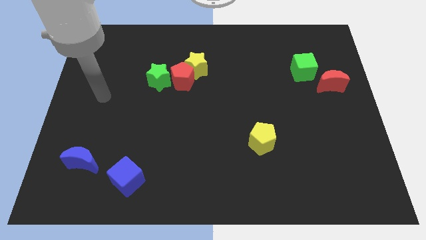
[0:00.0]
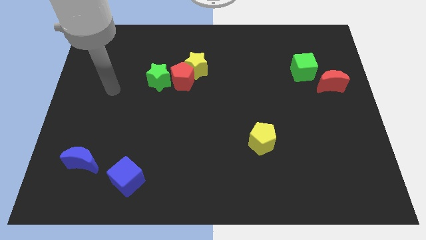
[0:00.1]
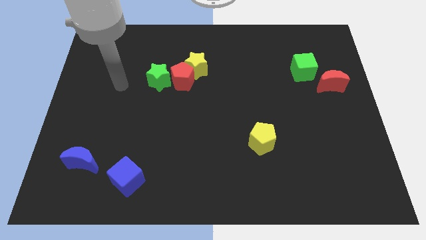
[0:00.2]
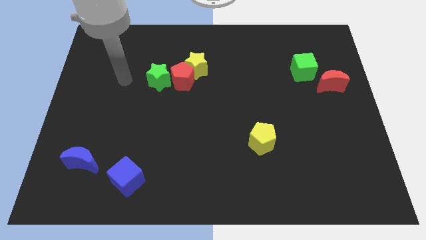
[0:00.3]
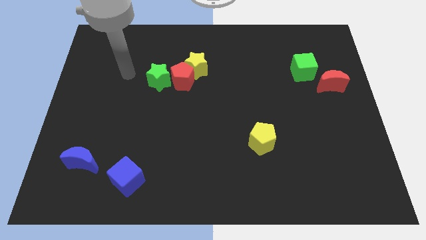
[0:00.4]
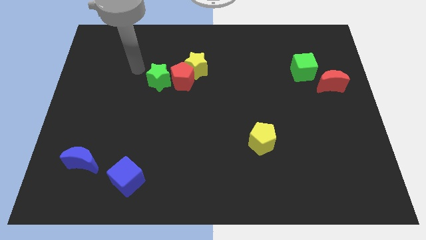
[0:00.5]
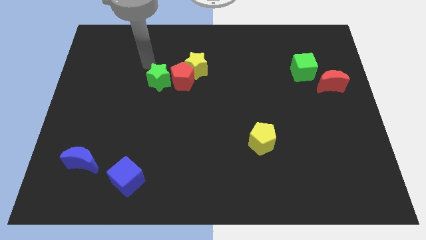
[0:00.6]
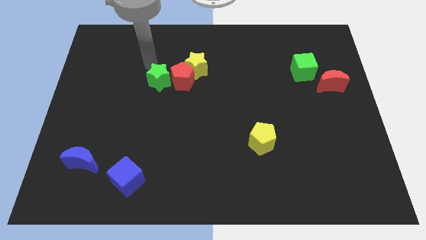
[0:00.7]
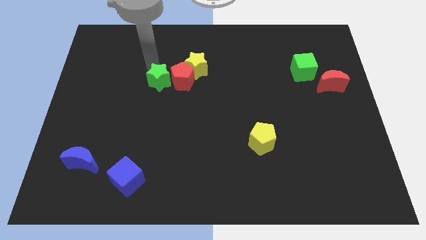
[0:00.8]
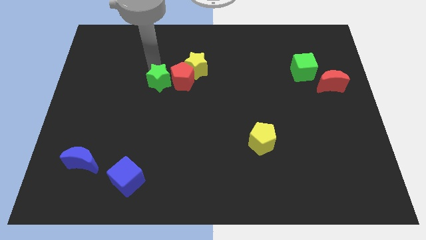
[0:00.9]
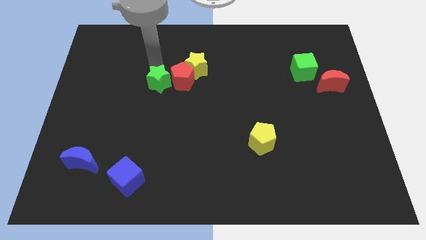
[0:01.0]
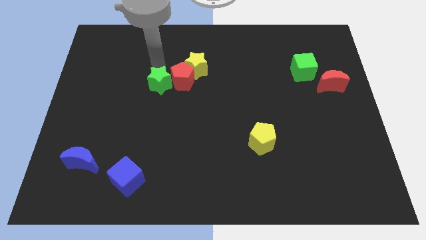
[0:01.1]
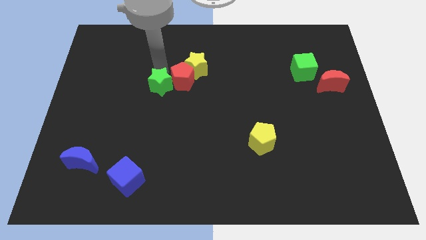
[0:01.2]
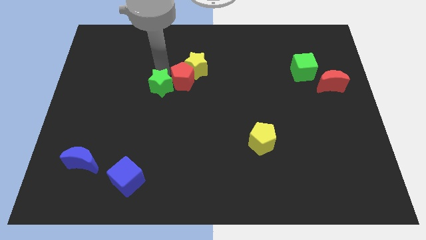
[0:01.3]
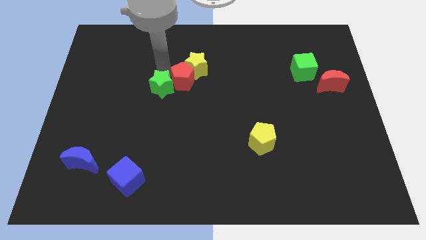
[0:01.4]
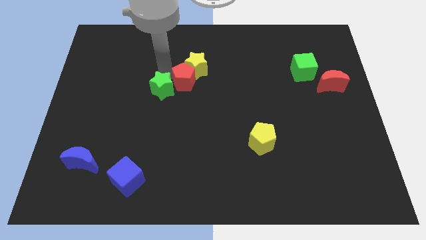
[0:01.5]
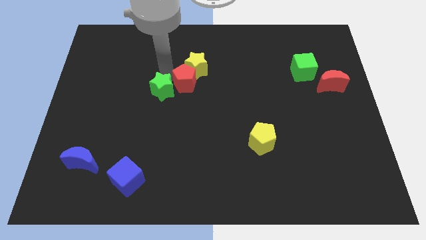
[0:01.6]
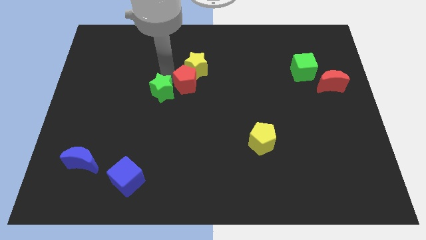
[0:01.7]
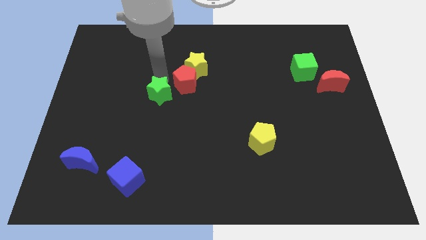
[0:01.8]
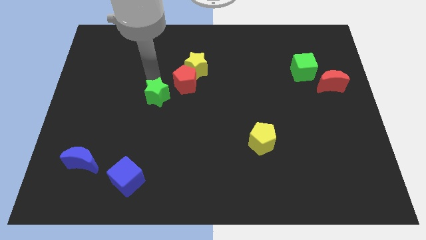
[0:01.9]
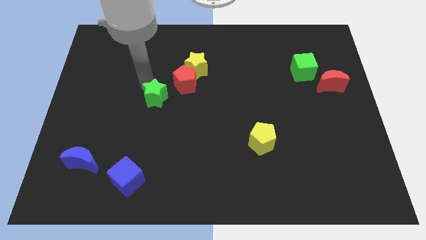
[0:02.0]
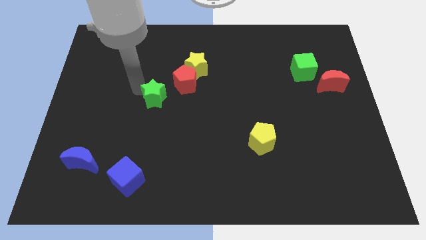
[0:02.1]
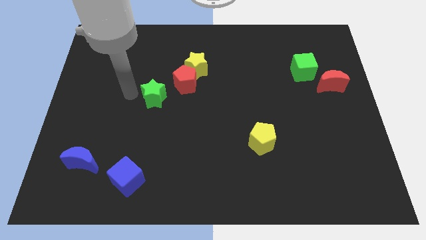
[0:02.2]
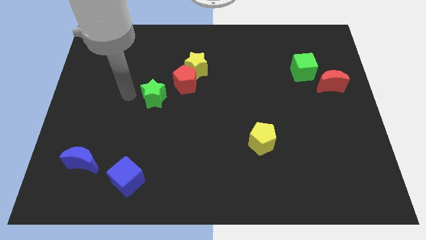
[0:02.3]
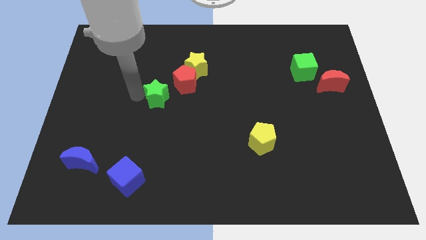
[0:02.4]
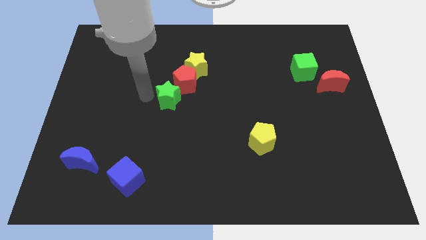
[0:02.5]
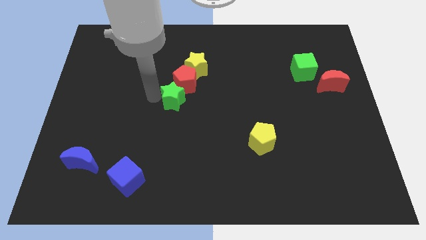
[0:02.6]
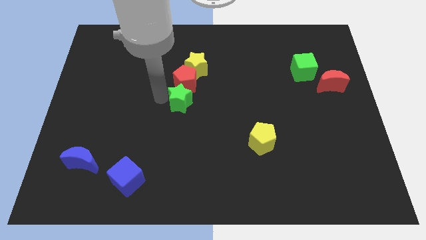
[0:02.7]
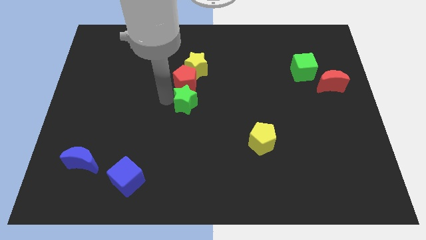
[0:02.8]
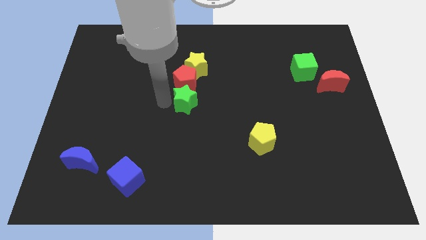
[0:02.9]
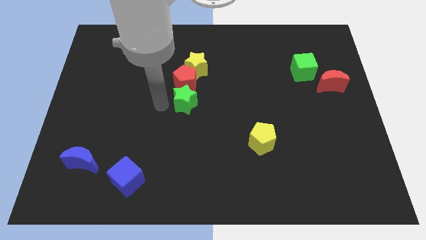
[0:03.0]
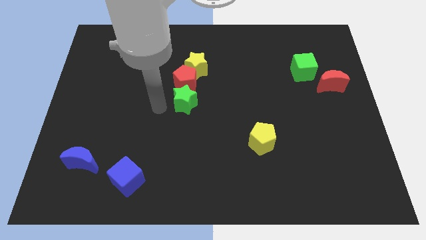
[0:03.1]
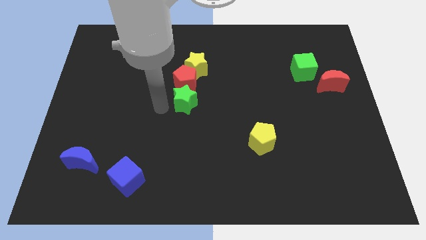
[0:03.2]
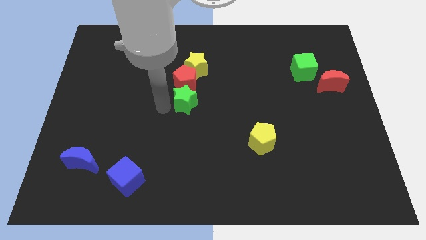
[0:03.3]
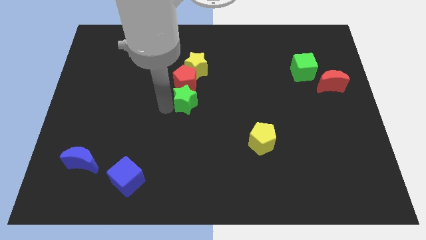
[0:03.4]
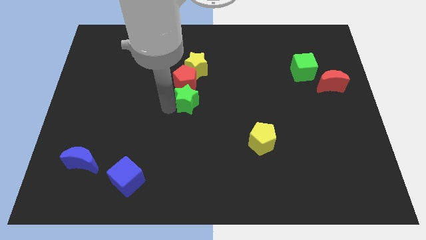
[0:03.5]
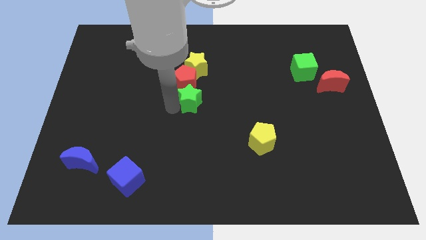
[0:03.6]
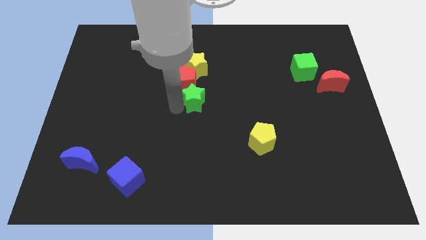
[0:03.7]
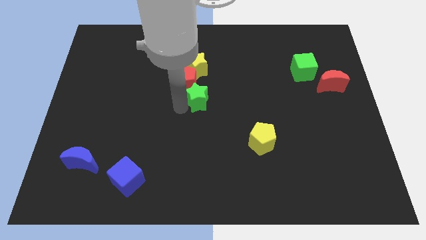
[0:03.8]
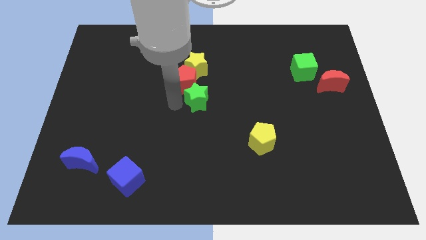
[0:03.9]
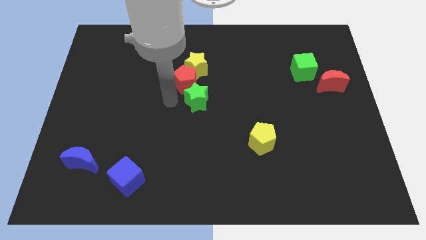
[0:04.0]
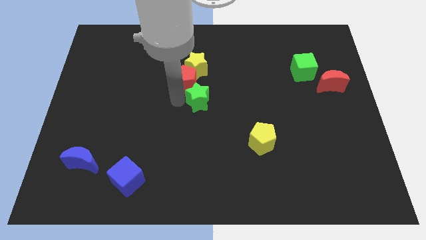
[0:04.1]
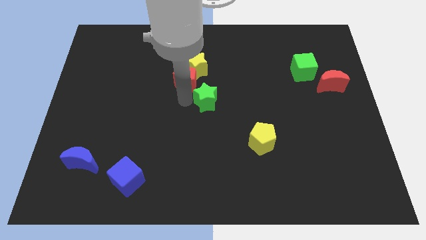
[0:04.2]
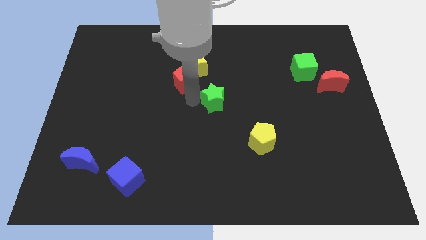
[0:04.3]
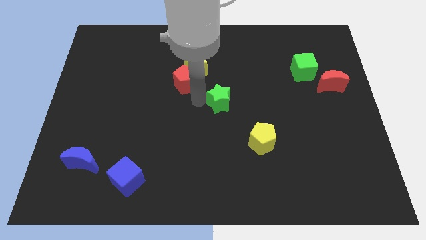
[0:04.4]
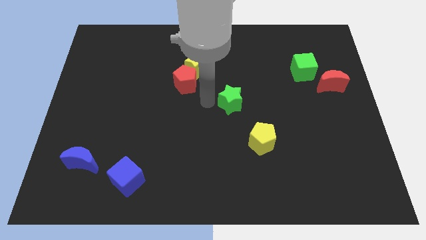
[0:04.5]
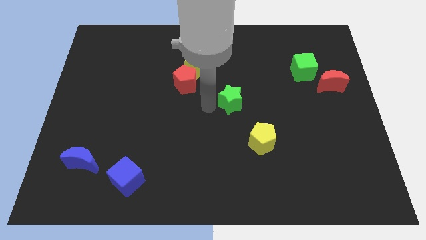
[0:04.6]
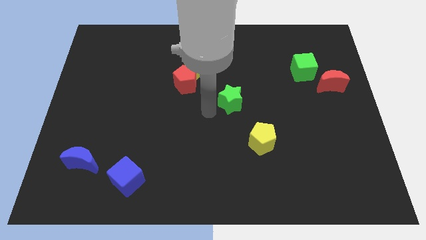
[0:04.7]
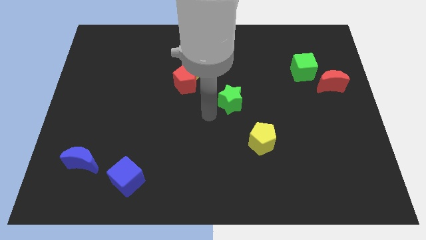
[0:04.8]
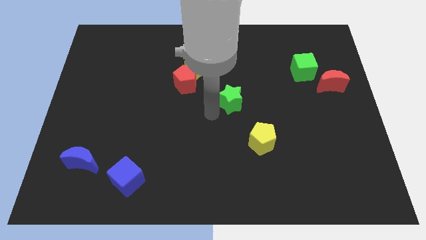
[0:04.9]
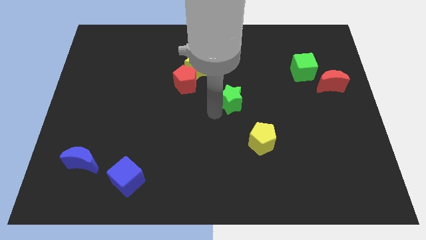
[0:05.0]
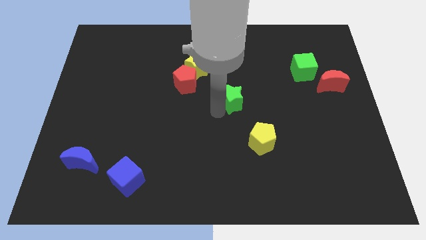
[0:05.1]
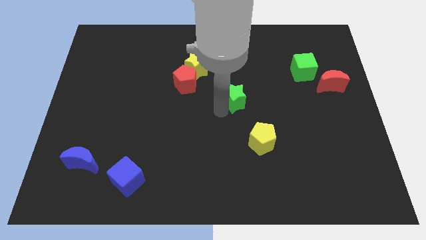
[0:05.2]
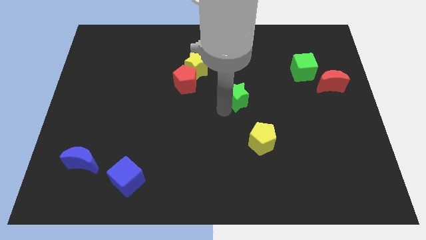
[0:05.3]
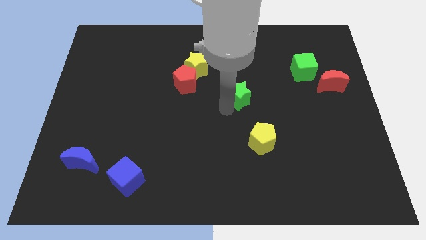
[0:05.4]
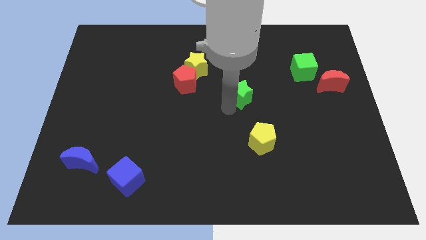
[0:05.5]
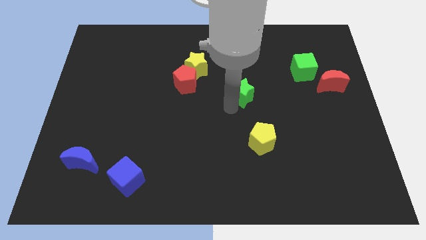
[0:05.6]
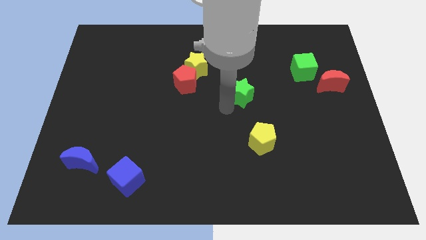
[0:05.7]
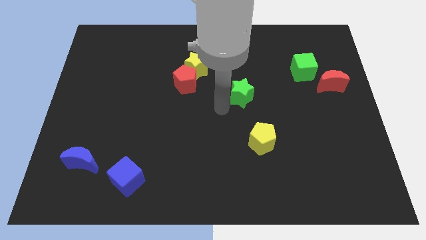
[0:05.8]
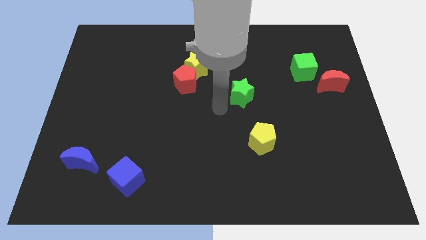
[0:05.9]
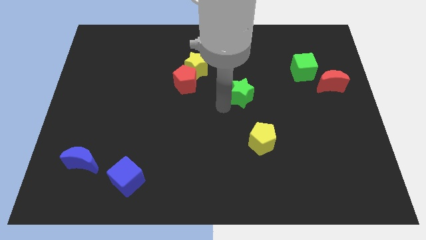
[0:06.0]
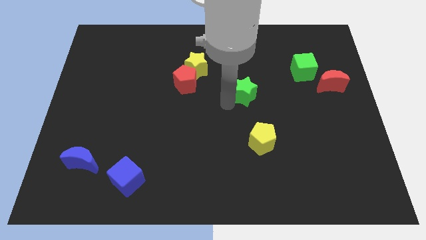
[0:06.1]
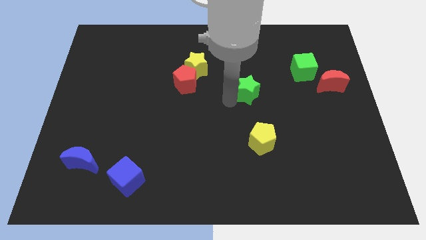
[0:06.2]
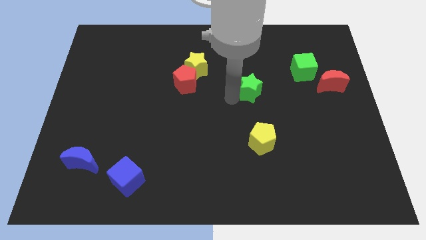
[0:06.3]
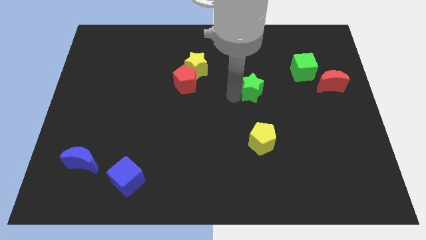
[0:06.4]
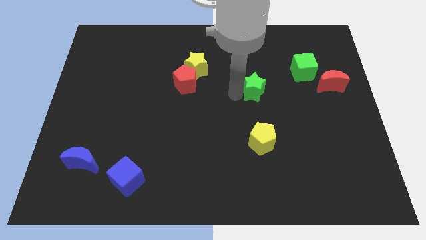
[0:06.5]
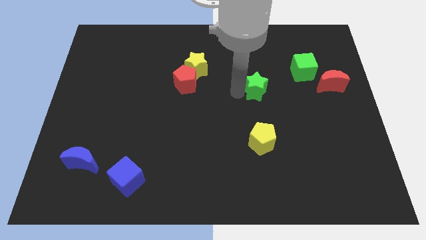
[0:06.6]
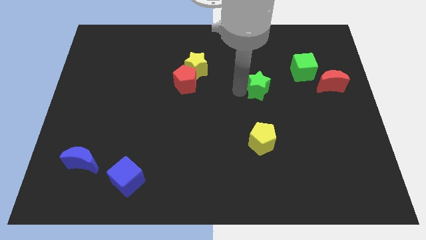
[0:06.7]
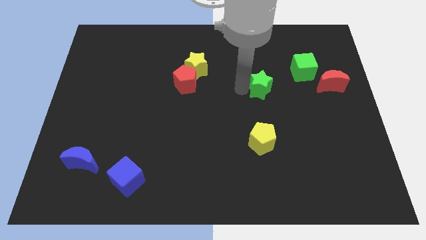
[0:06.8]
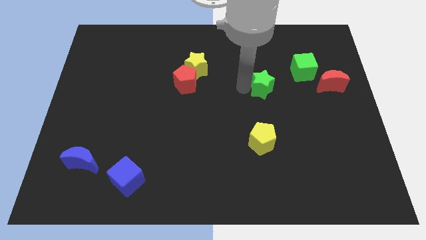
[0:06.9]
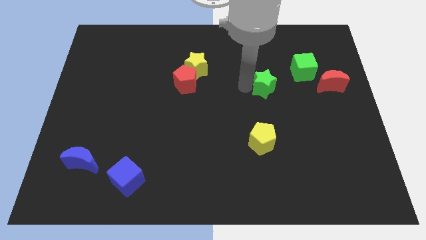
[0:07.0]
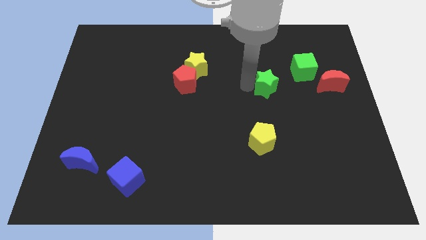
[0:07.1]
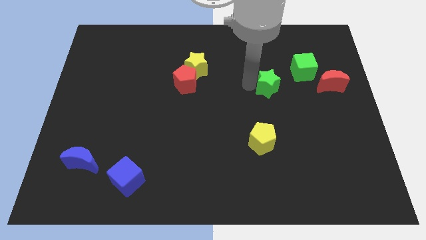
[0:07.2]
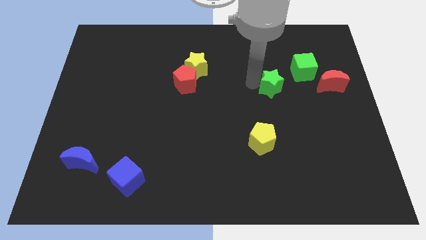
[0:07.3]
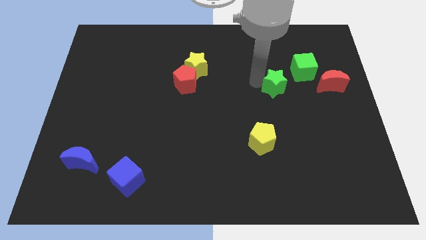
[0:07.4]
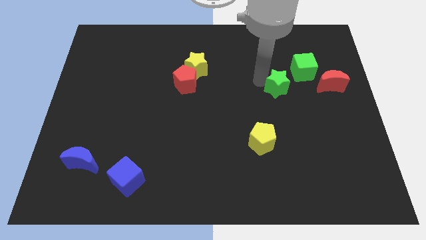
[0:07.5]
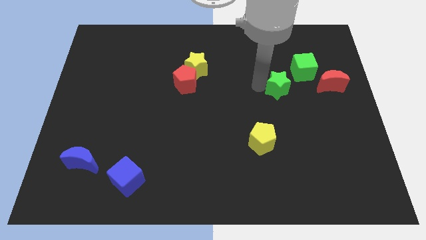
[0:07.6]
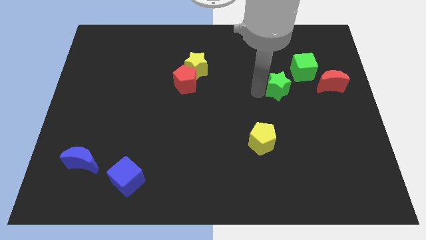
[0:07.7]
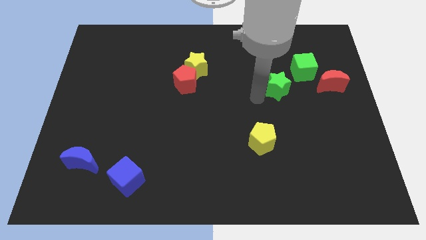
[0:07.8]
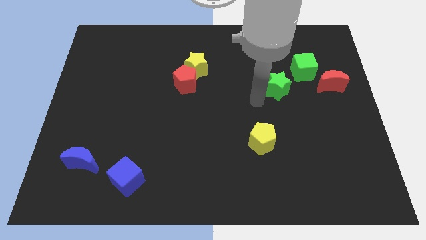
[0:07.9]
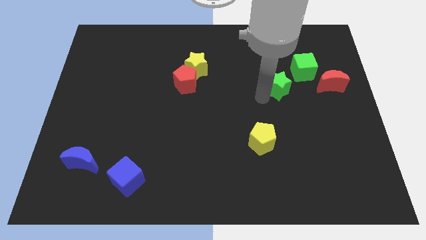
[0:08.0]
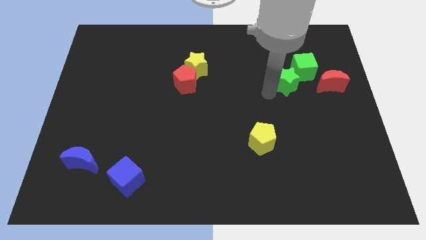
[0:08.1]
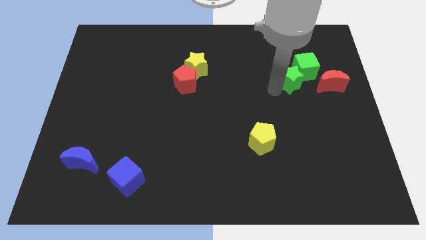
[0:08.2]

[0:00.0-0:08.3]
slide the green star close to the green cube

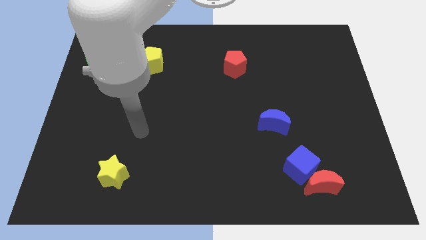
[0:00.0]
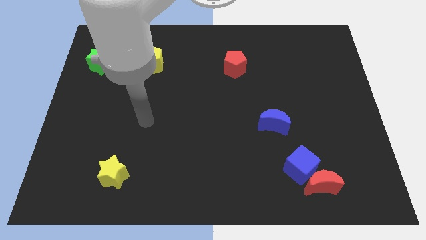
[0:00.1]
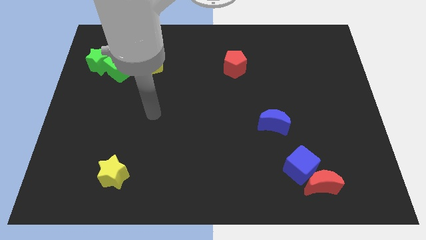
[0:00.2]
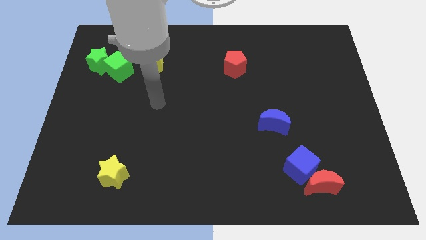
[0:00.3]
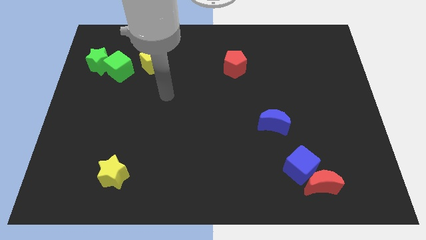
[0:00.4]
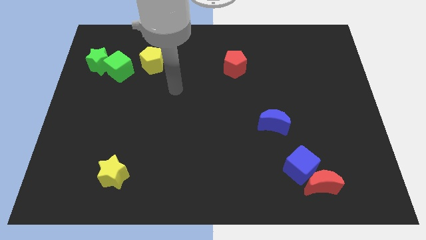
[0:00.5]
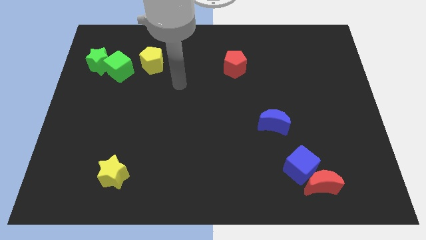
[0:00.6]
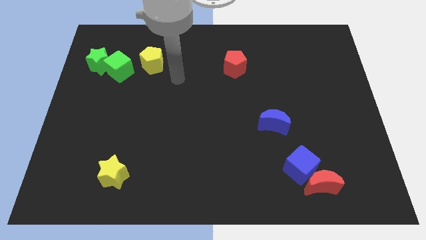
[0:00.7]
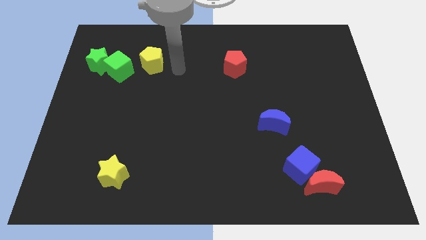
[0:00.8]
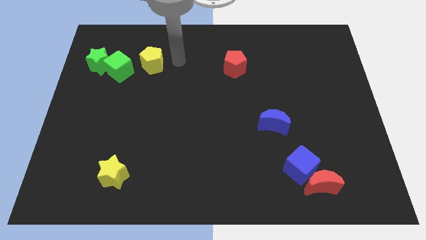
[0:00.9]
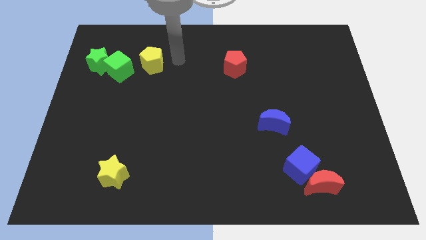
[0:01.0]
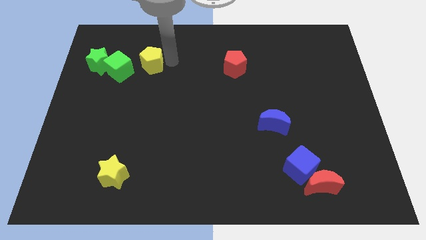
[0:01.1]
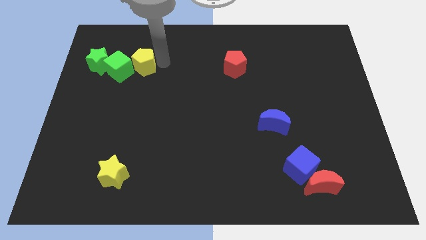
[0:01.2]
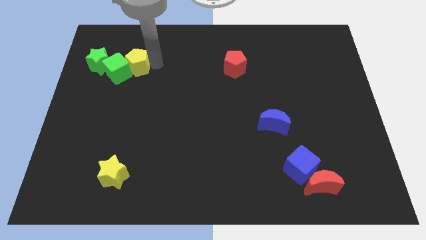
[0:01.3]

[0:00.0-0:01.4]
put the yellow pentagon close to the green cube
